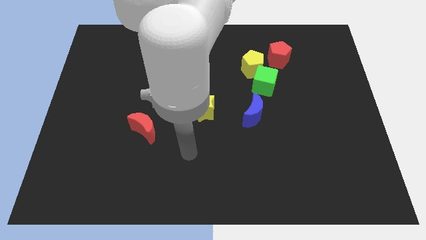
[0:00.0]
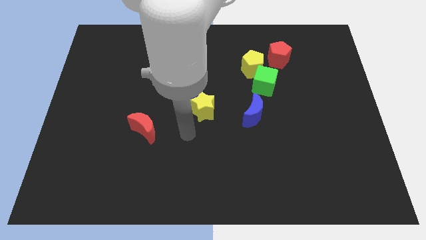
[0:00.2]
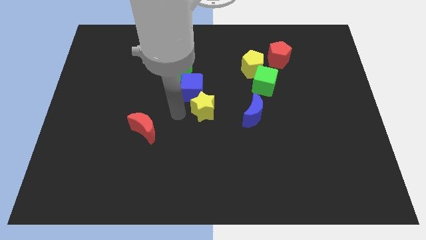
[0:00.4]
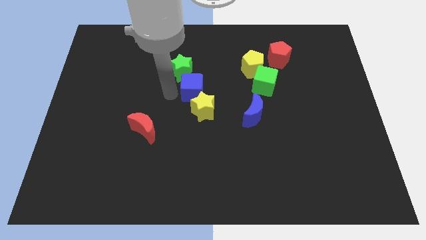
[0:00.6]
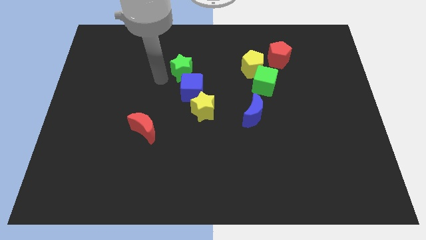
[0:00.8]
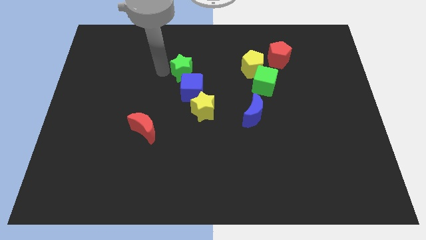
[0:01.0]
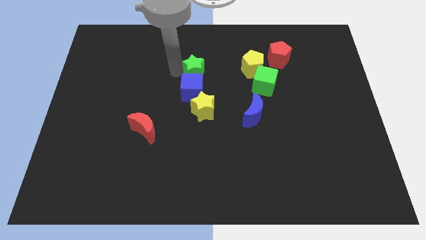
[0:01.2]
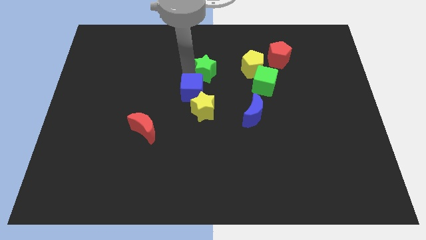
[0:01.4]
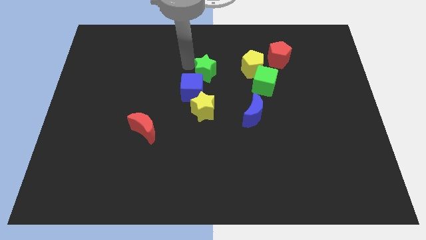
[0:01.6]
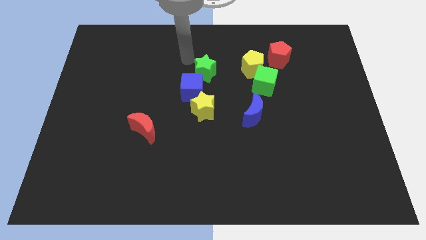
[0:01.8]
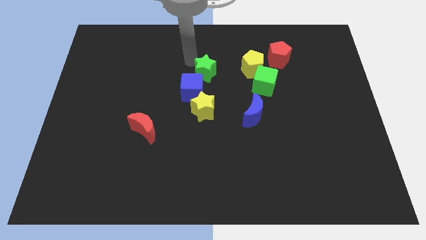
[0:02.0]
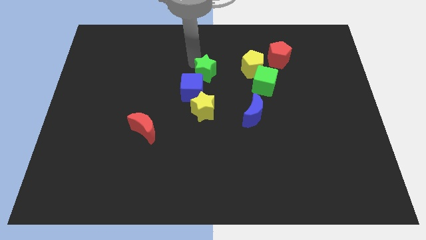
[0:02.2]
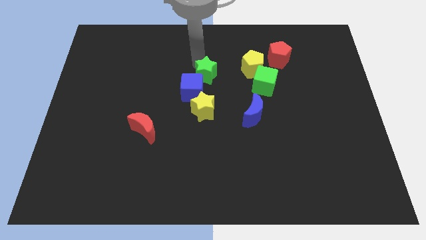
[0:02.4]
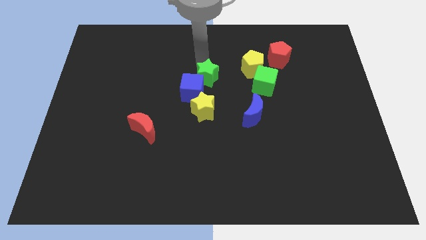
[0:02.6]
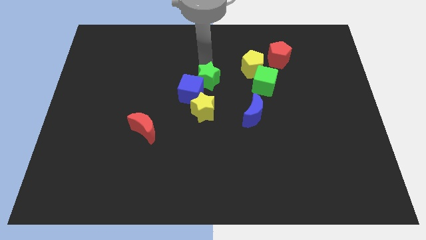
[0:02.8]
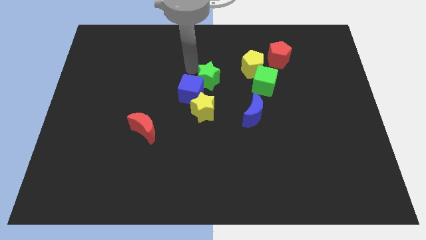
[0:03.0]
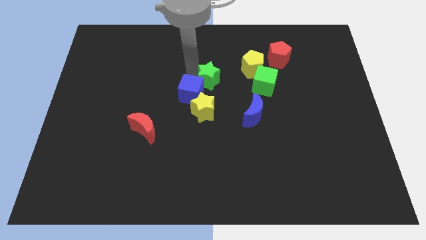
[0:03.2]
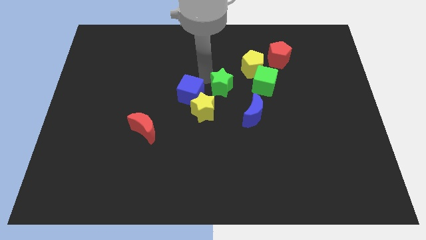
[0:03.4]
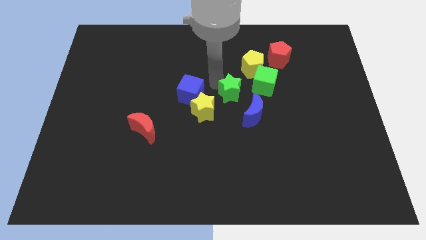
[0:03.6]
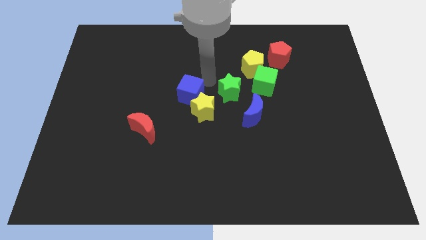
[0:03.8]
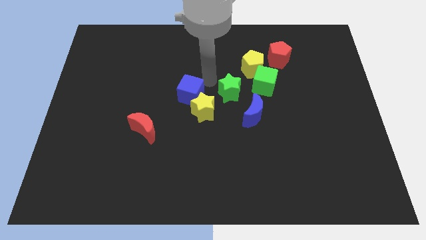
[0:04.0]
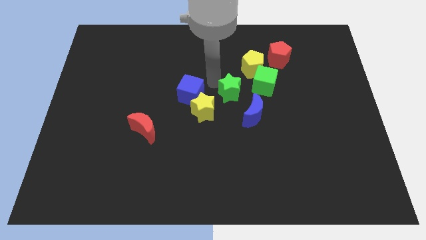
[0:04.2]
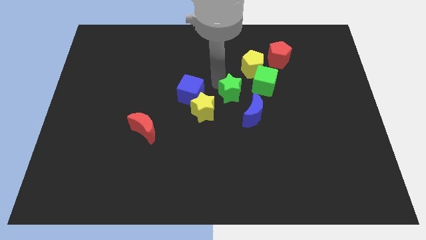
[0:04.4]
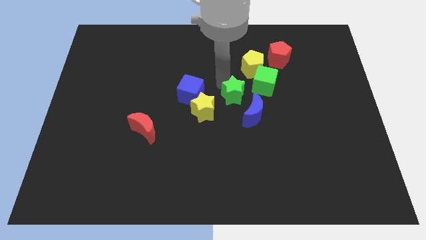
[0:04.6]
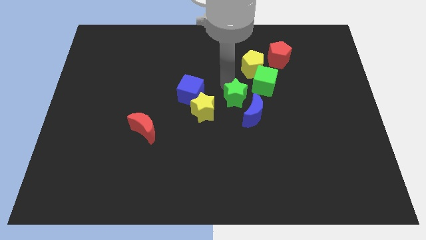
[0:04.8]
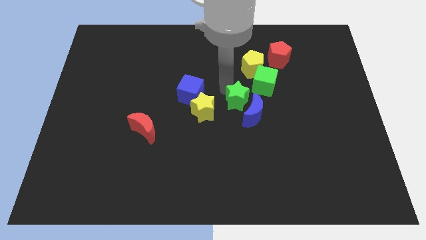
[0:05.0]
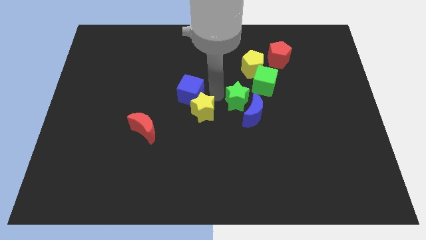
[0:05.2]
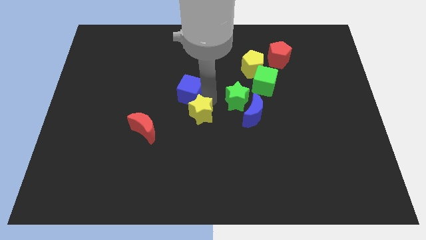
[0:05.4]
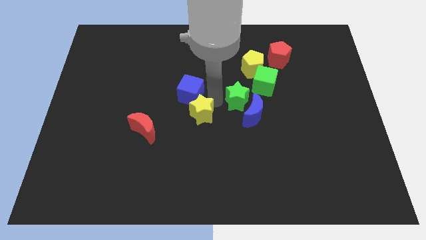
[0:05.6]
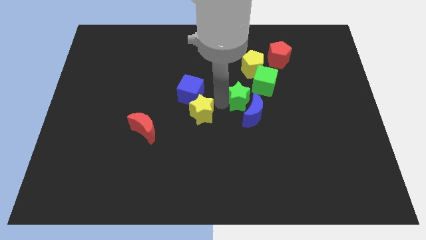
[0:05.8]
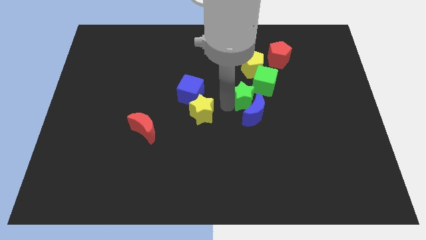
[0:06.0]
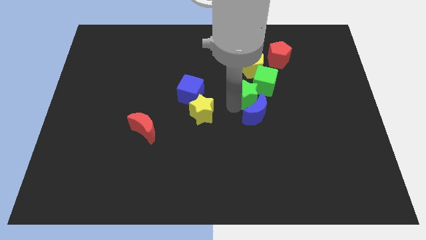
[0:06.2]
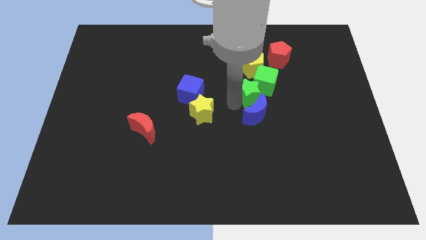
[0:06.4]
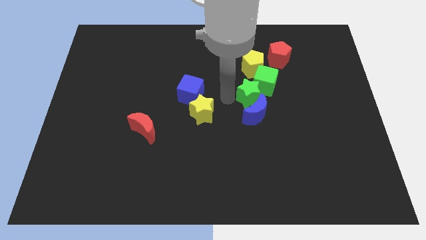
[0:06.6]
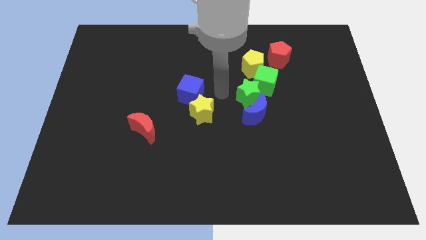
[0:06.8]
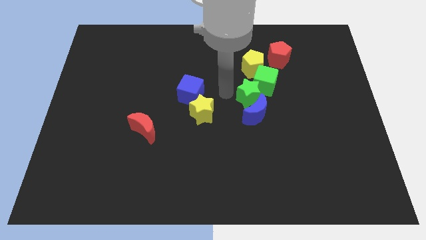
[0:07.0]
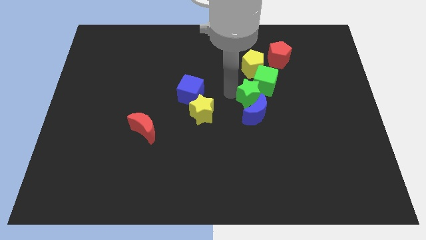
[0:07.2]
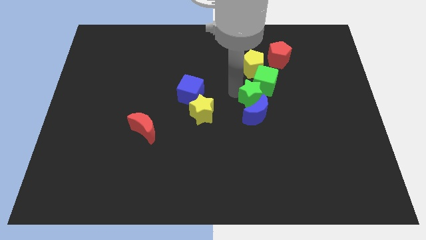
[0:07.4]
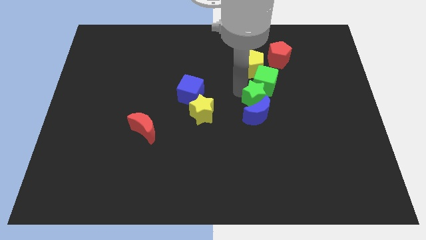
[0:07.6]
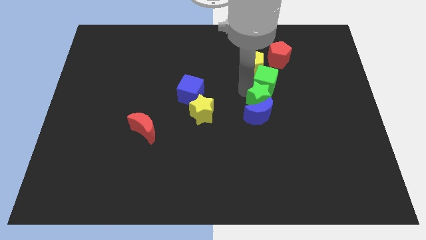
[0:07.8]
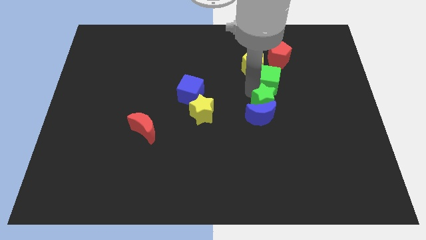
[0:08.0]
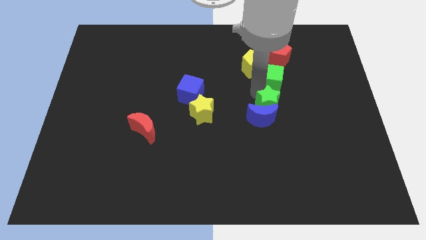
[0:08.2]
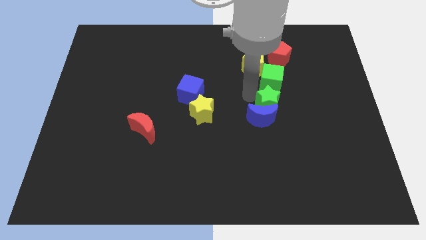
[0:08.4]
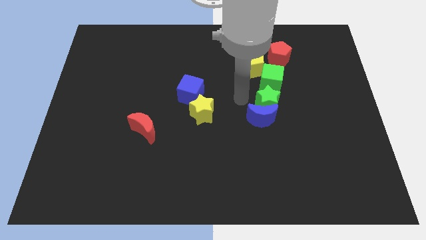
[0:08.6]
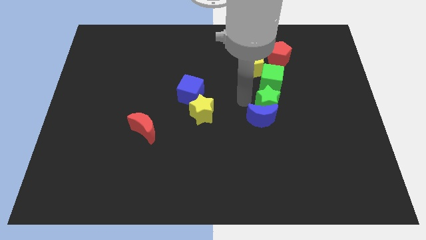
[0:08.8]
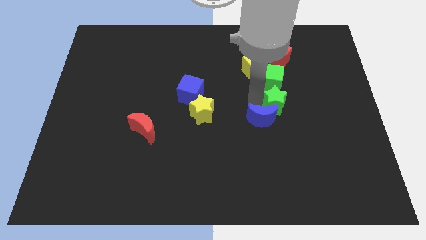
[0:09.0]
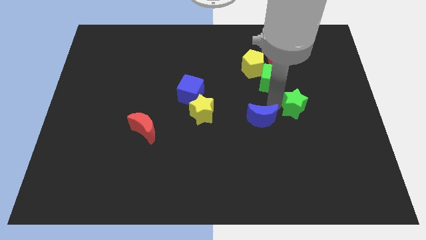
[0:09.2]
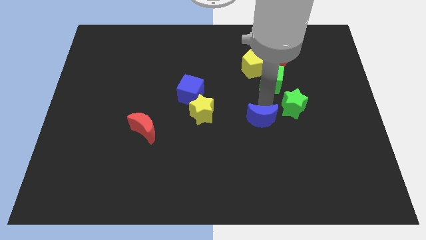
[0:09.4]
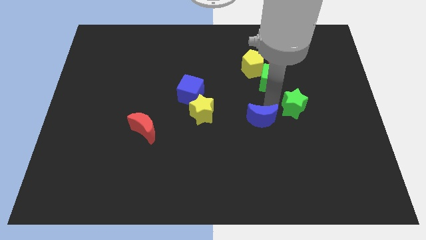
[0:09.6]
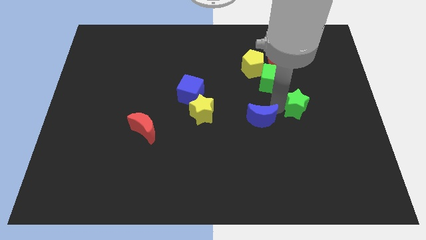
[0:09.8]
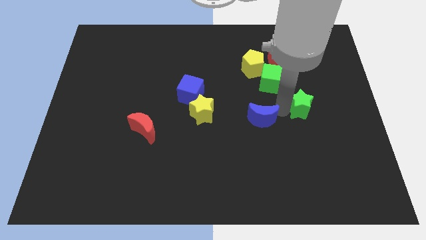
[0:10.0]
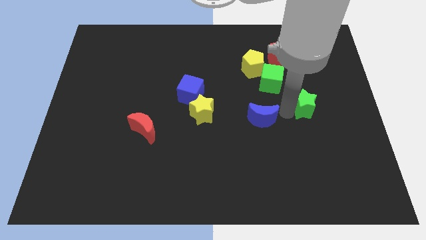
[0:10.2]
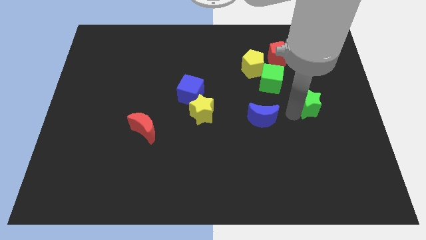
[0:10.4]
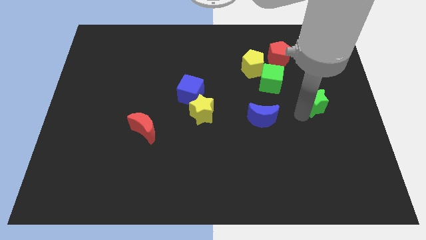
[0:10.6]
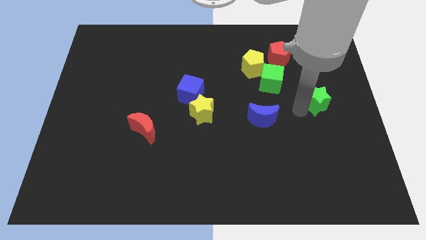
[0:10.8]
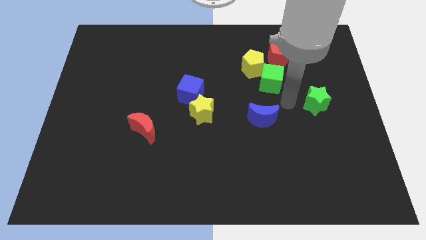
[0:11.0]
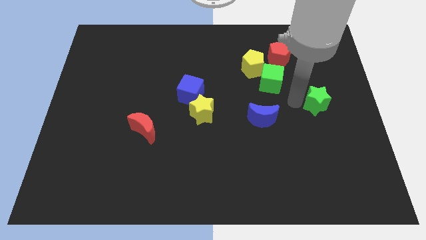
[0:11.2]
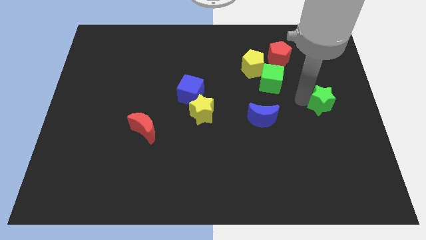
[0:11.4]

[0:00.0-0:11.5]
slide the green star to the center right

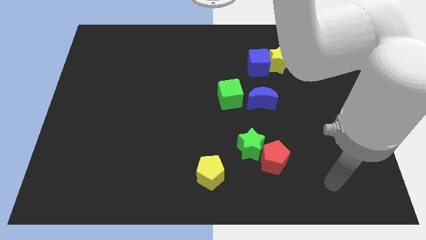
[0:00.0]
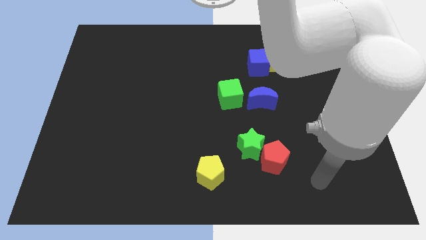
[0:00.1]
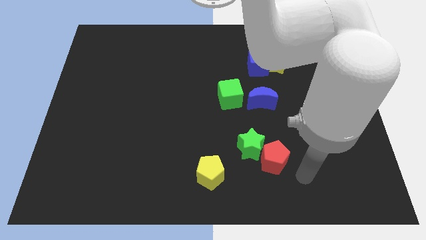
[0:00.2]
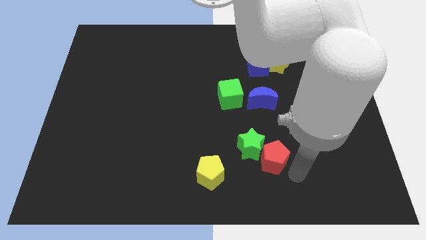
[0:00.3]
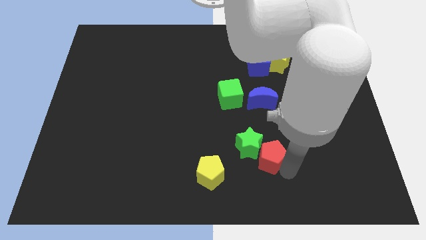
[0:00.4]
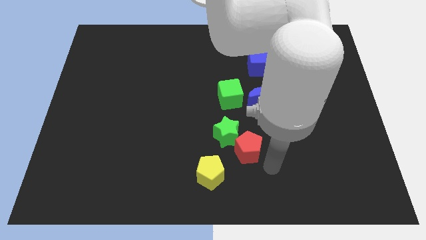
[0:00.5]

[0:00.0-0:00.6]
slide the green star to the middle of the board

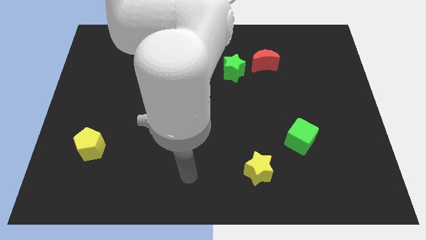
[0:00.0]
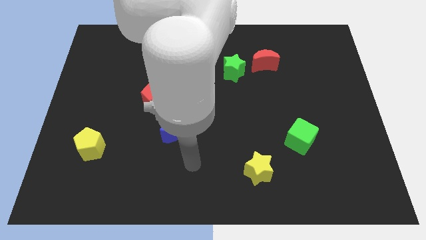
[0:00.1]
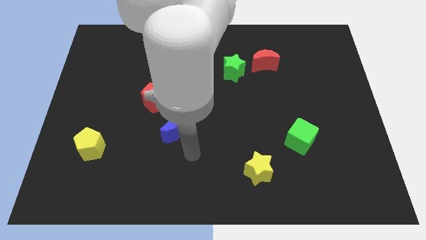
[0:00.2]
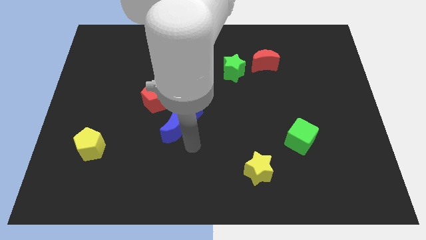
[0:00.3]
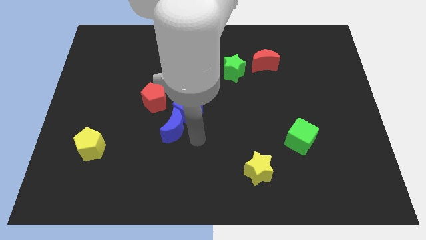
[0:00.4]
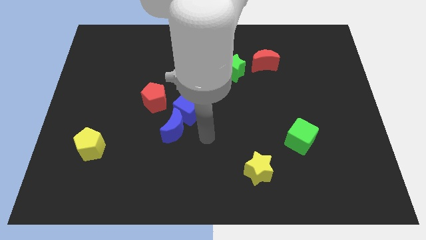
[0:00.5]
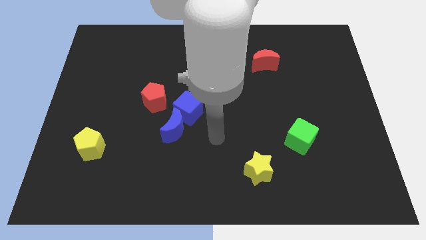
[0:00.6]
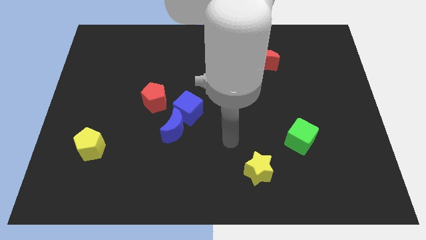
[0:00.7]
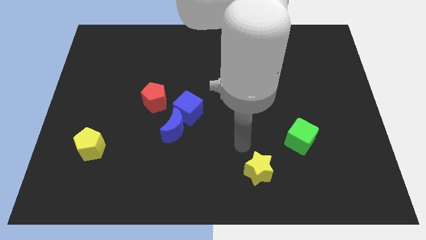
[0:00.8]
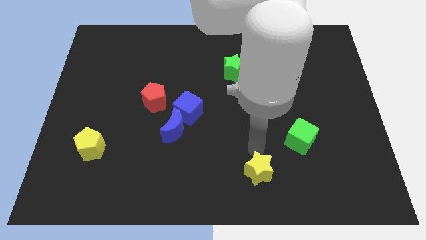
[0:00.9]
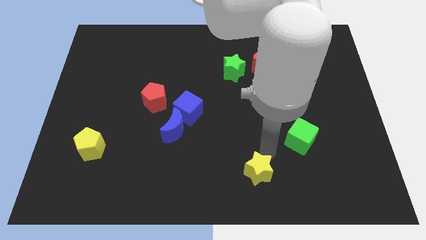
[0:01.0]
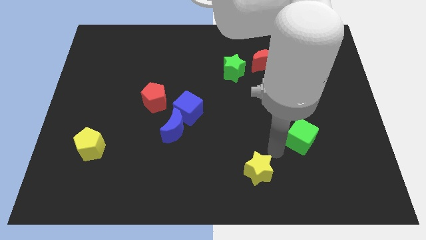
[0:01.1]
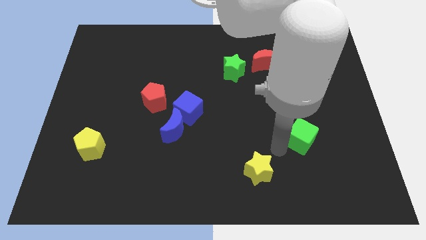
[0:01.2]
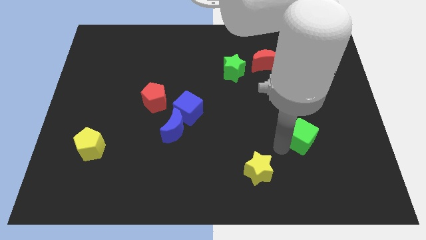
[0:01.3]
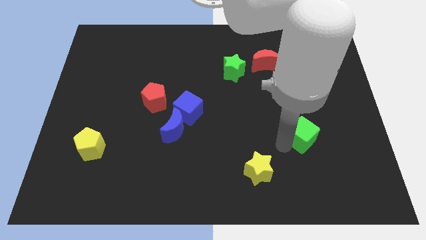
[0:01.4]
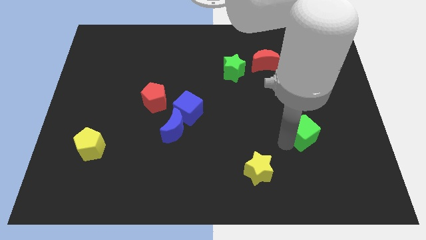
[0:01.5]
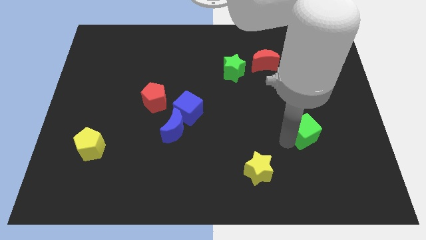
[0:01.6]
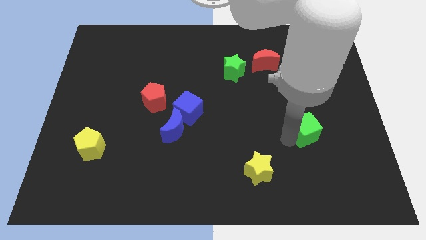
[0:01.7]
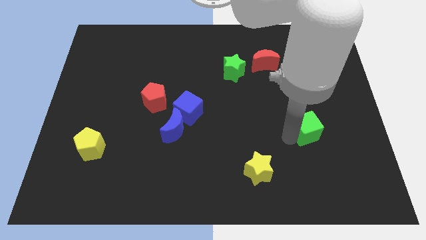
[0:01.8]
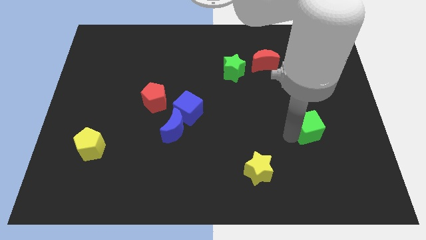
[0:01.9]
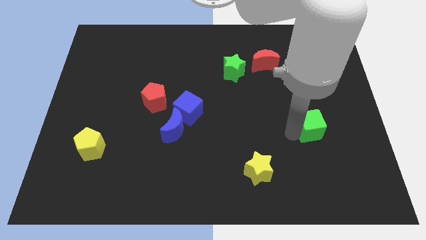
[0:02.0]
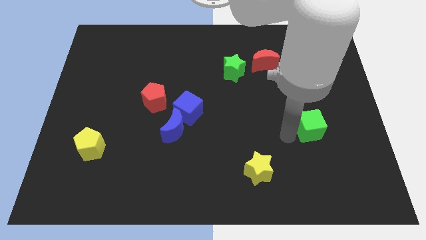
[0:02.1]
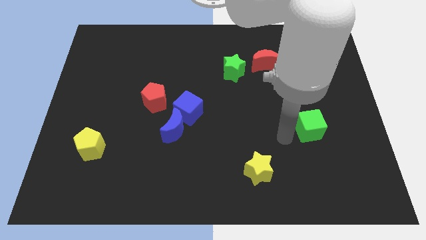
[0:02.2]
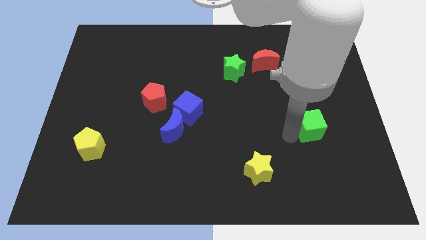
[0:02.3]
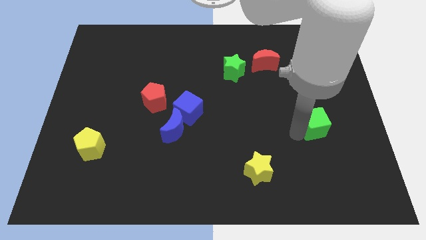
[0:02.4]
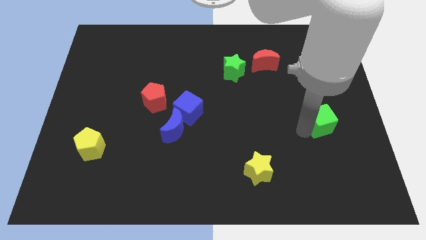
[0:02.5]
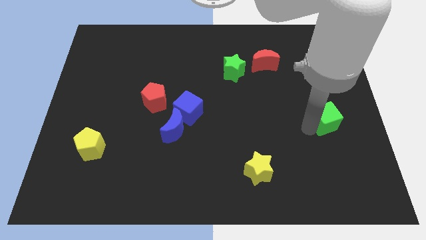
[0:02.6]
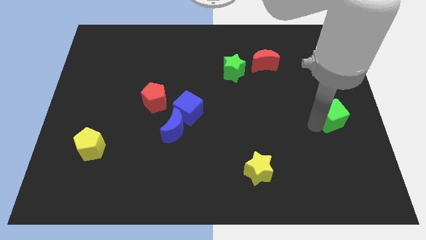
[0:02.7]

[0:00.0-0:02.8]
push the green cube to the right side of the board
